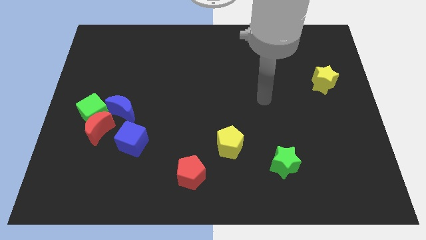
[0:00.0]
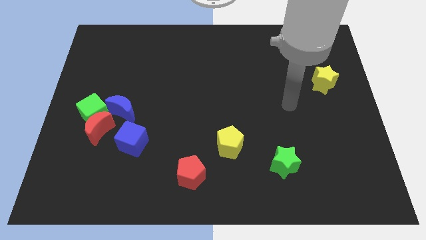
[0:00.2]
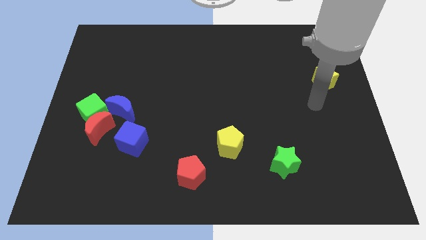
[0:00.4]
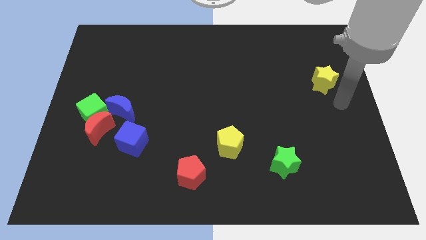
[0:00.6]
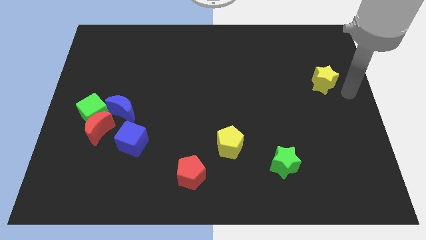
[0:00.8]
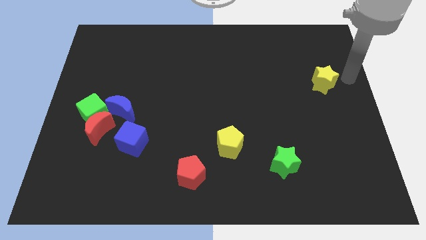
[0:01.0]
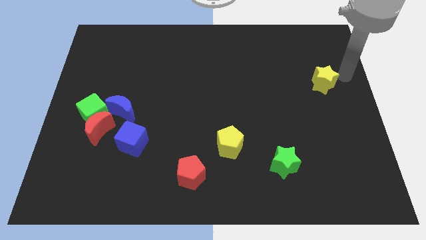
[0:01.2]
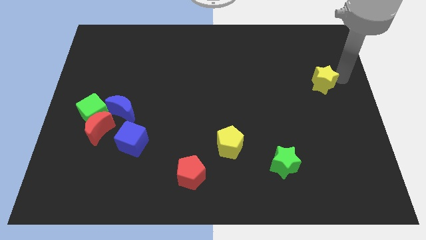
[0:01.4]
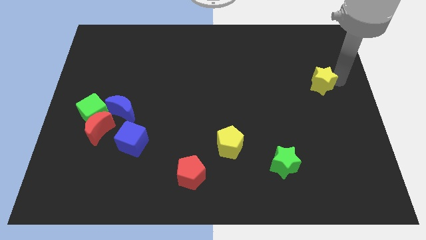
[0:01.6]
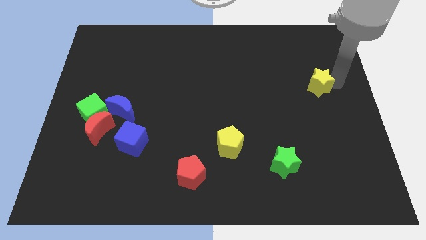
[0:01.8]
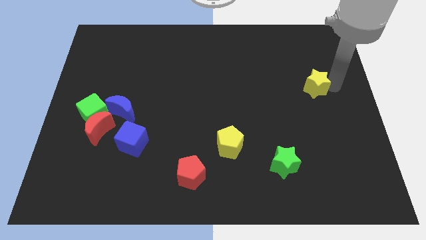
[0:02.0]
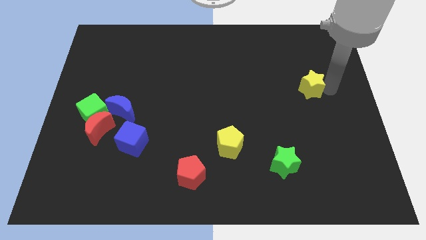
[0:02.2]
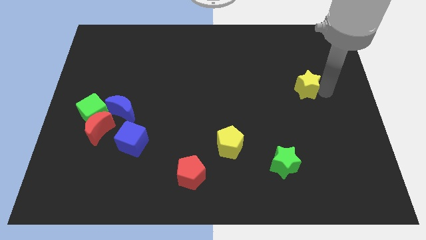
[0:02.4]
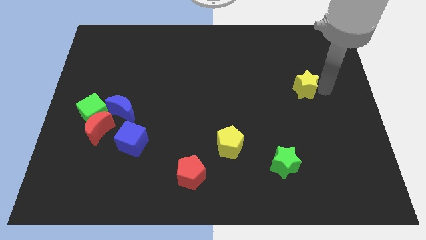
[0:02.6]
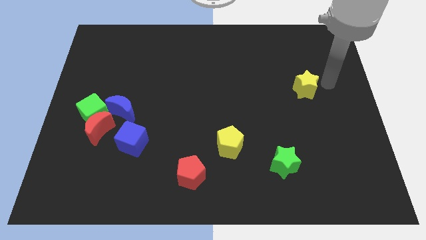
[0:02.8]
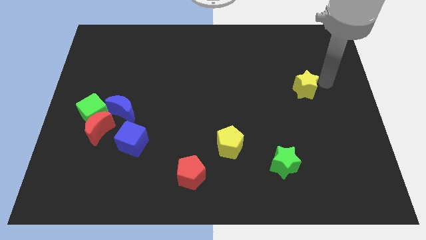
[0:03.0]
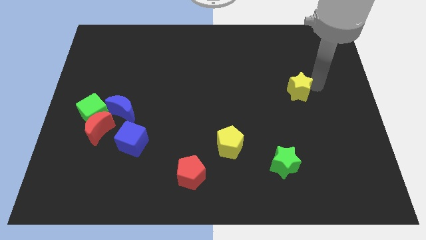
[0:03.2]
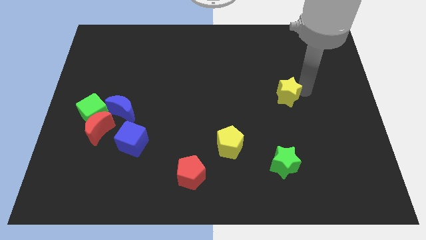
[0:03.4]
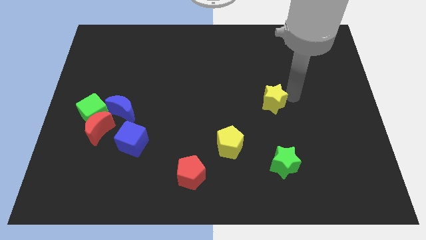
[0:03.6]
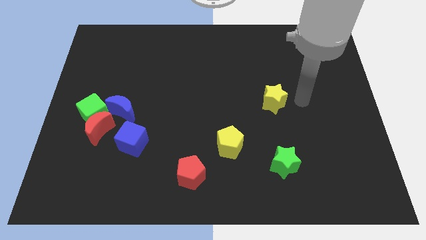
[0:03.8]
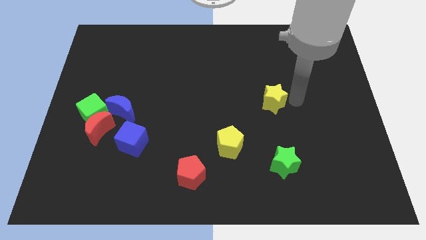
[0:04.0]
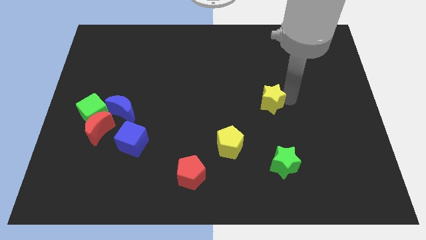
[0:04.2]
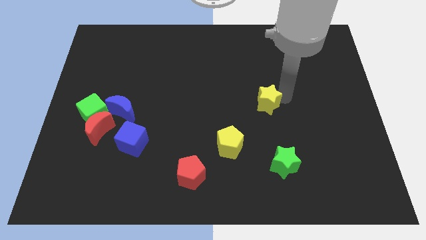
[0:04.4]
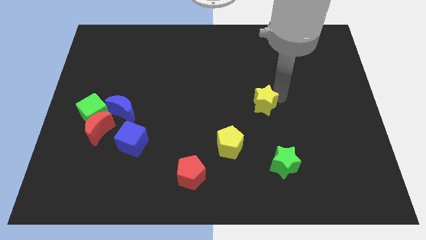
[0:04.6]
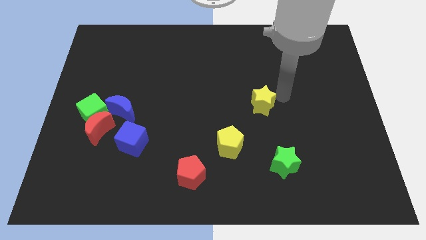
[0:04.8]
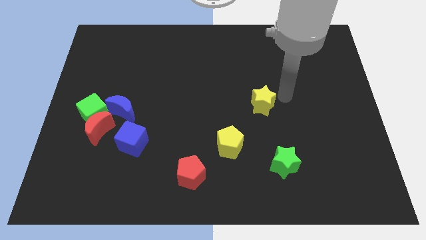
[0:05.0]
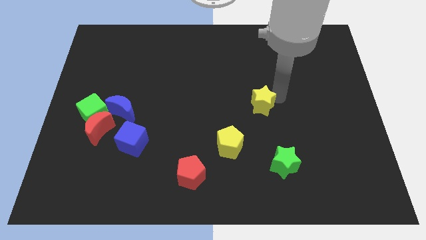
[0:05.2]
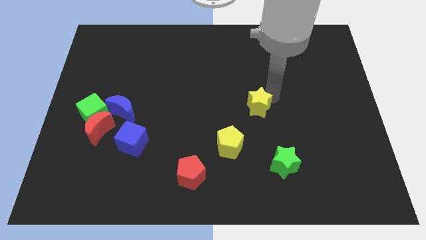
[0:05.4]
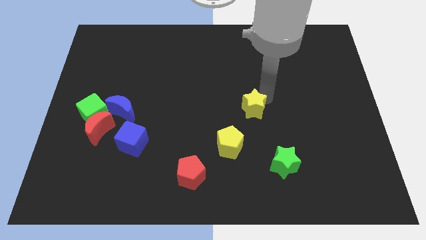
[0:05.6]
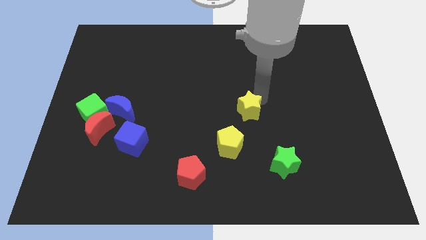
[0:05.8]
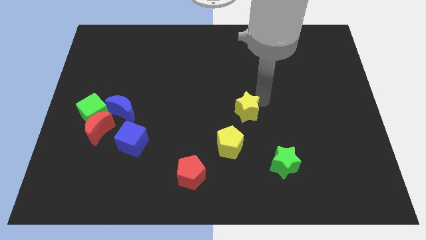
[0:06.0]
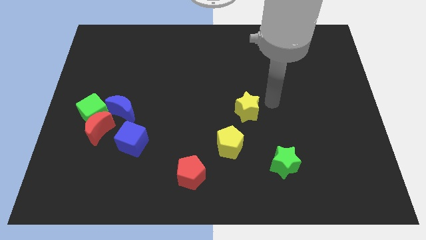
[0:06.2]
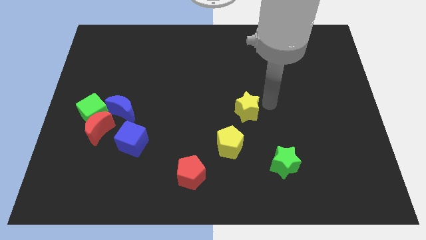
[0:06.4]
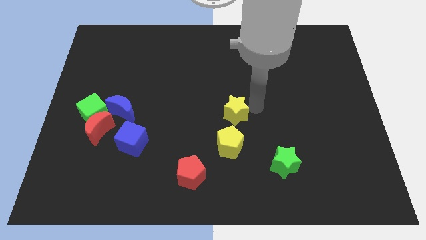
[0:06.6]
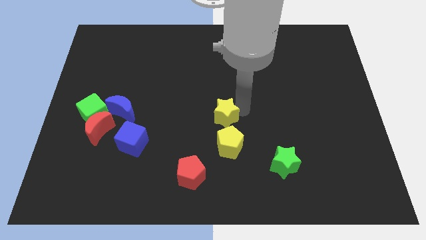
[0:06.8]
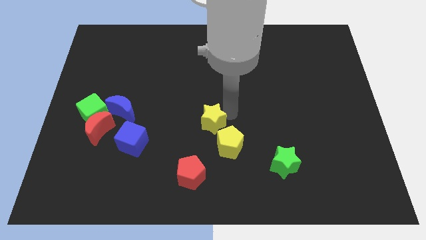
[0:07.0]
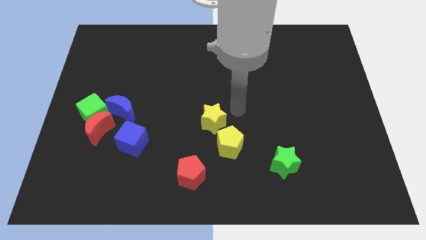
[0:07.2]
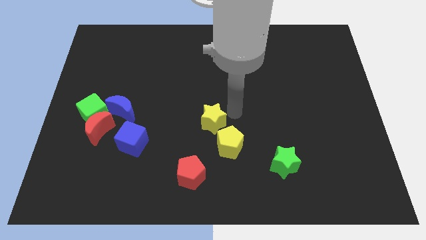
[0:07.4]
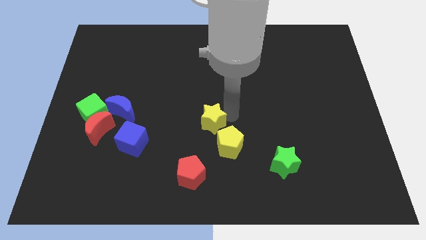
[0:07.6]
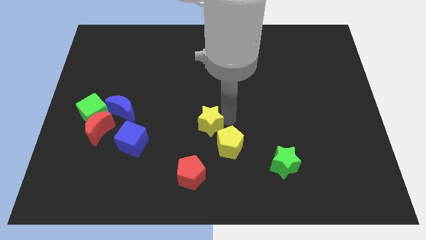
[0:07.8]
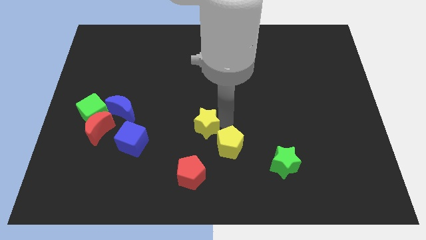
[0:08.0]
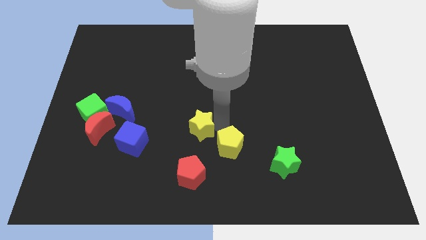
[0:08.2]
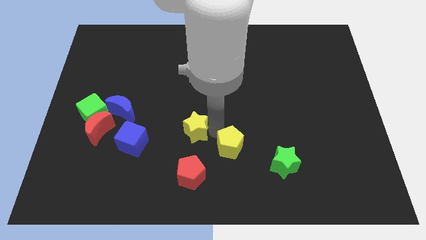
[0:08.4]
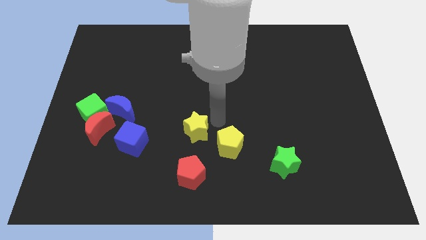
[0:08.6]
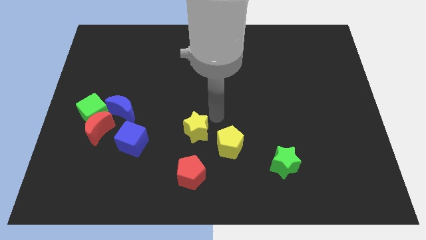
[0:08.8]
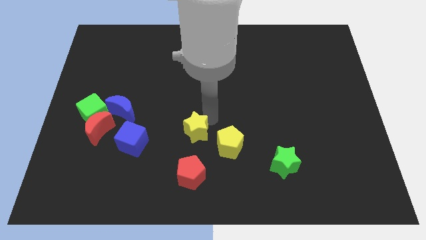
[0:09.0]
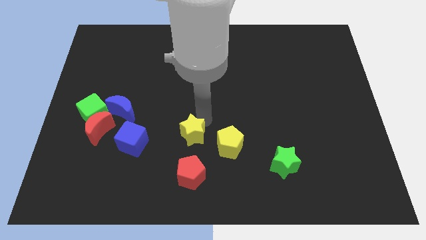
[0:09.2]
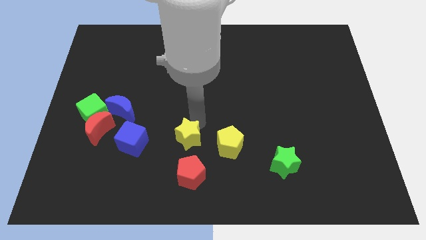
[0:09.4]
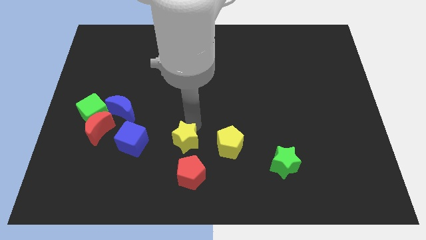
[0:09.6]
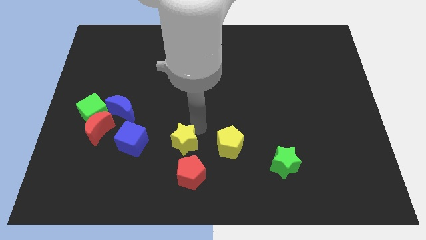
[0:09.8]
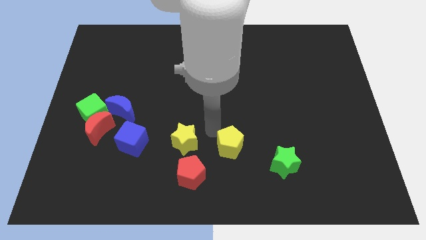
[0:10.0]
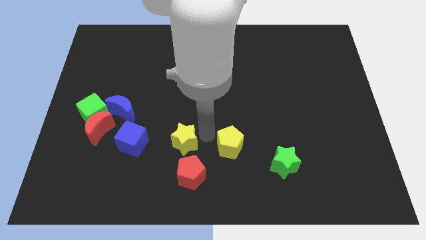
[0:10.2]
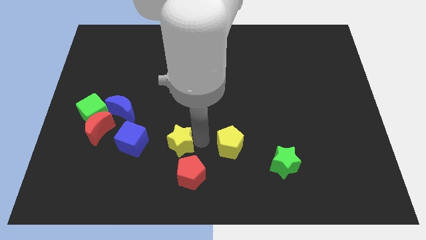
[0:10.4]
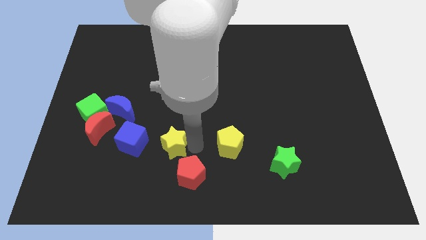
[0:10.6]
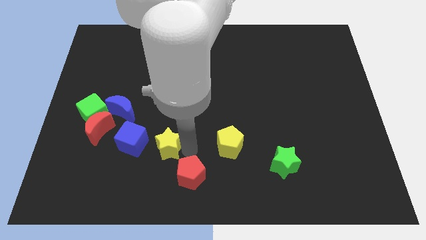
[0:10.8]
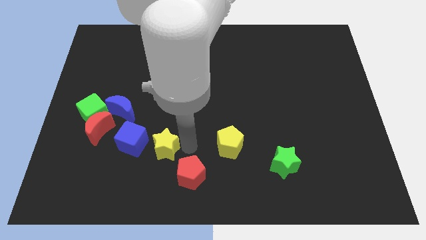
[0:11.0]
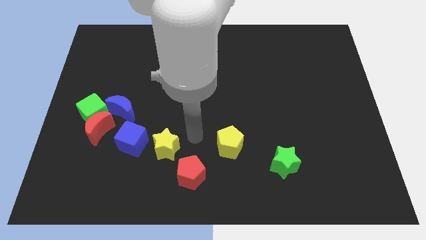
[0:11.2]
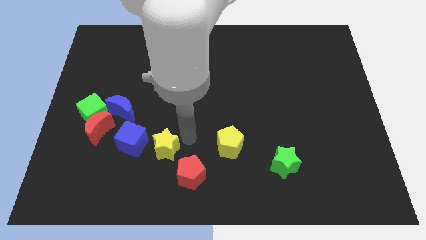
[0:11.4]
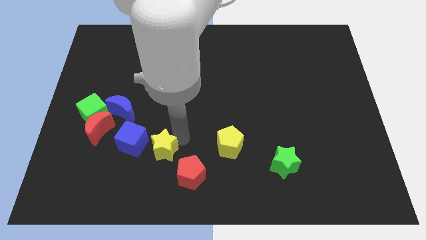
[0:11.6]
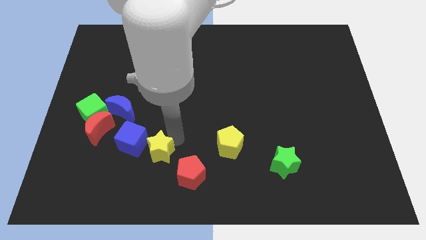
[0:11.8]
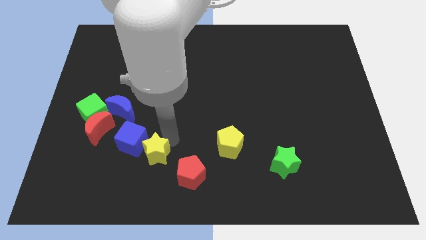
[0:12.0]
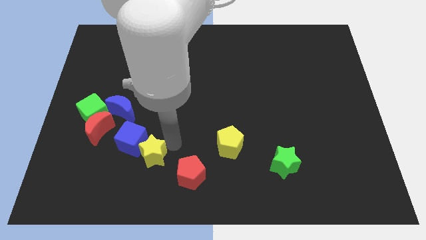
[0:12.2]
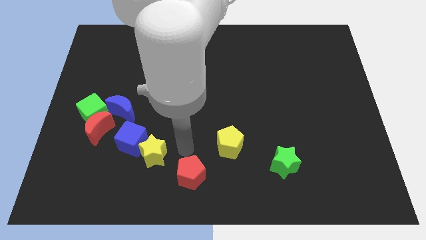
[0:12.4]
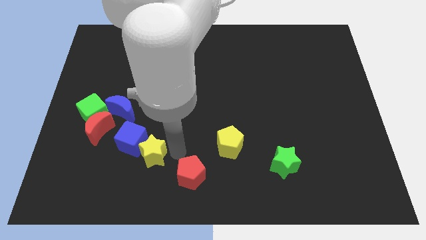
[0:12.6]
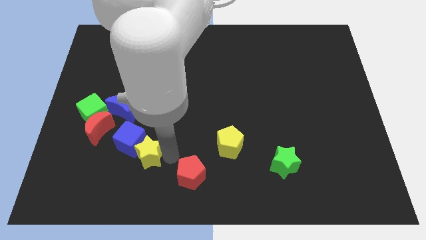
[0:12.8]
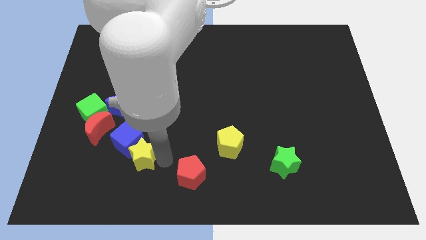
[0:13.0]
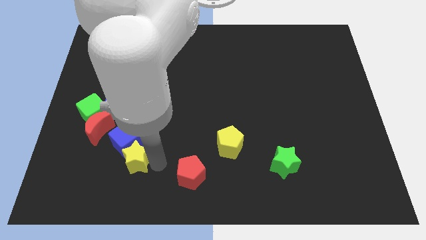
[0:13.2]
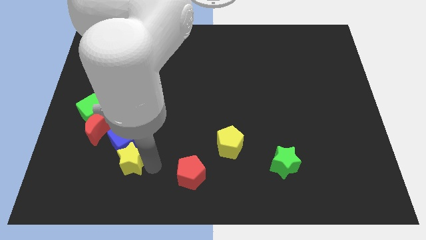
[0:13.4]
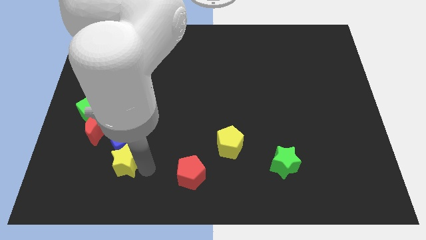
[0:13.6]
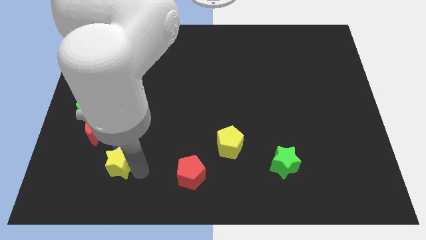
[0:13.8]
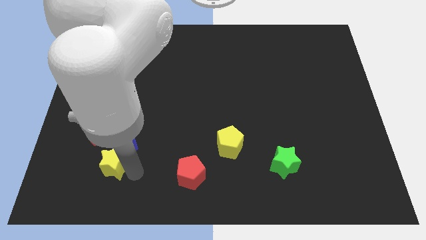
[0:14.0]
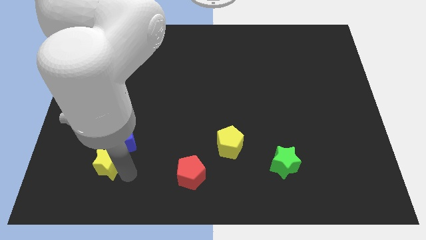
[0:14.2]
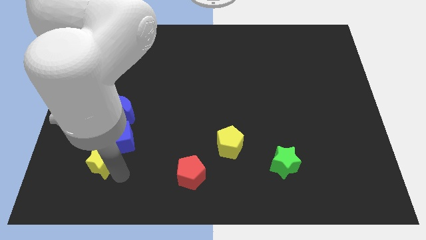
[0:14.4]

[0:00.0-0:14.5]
move the yellow star below the green cube

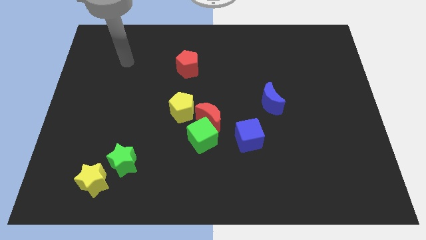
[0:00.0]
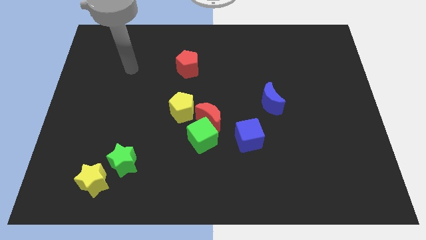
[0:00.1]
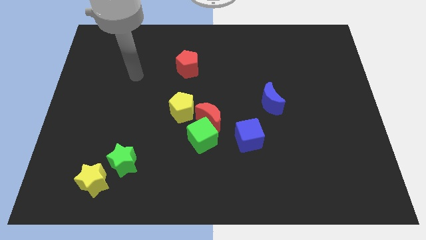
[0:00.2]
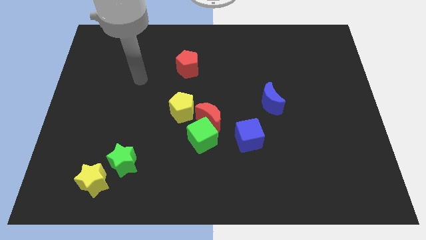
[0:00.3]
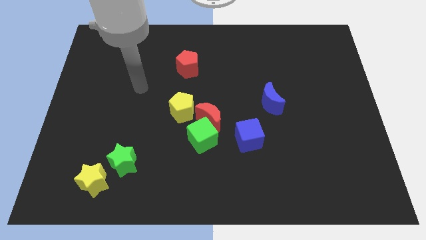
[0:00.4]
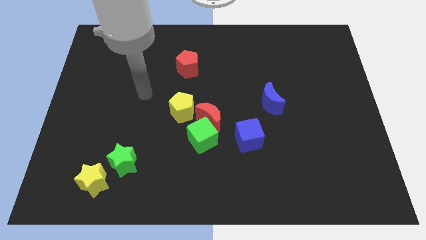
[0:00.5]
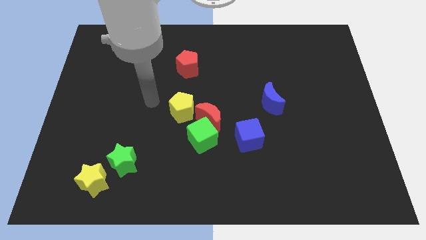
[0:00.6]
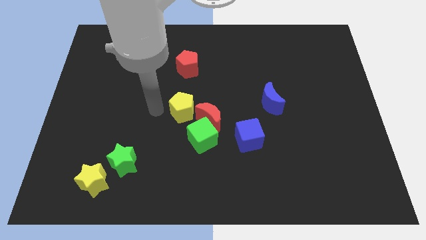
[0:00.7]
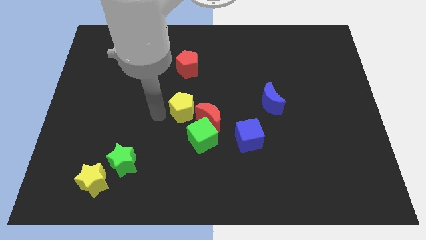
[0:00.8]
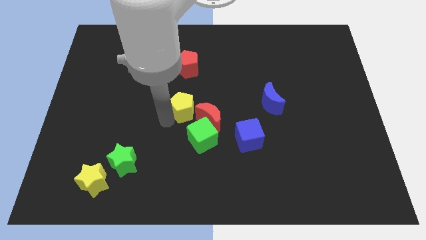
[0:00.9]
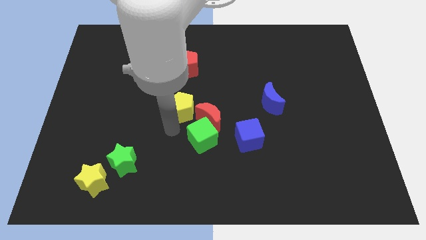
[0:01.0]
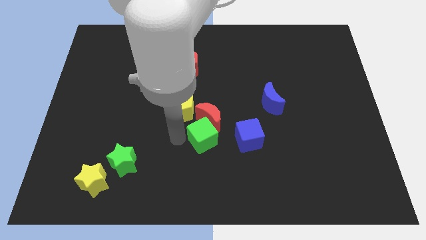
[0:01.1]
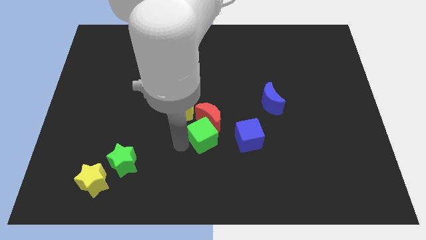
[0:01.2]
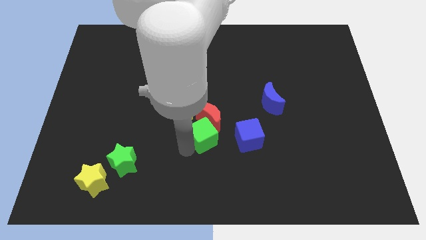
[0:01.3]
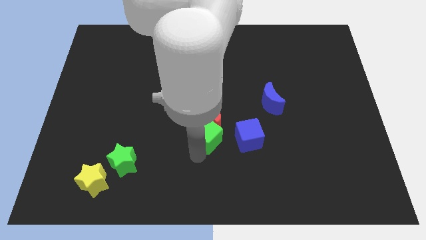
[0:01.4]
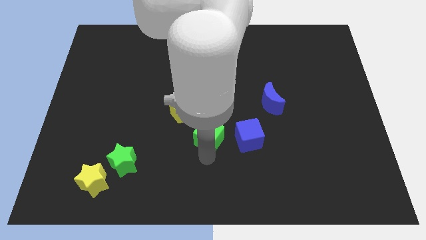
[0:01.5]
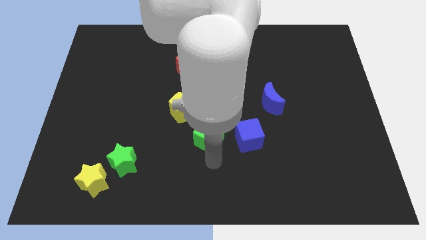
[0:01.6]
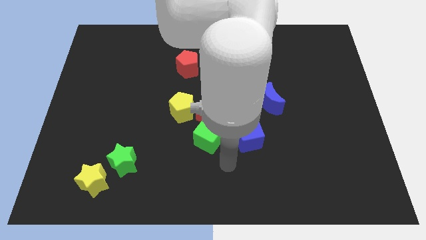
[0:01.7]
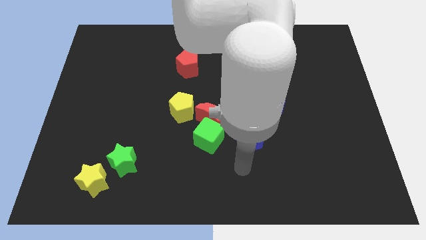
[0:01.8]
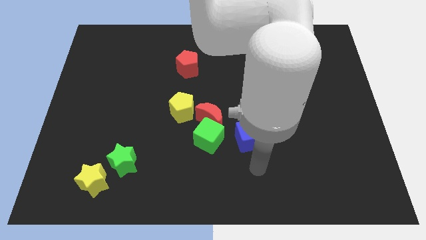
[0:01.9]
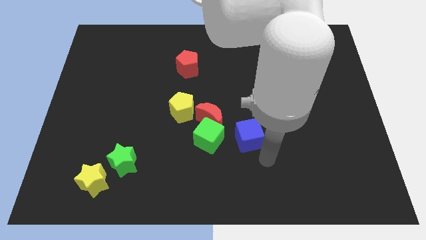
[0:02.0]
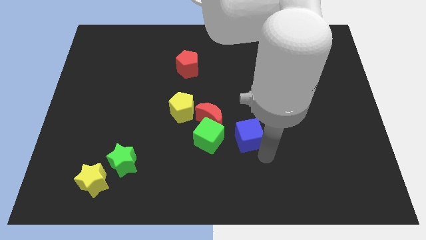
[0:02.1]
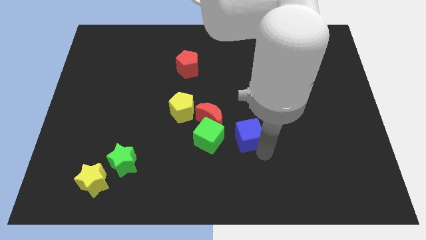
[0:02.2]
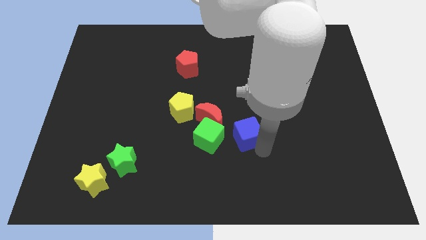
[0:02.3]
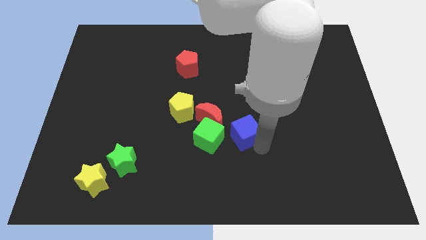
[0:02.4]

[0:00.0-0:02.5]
move the blue cube diagonally up and to the right of the green cube
